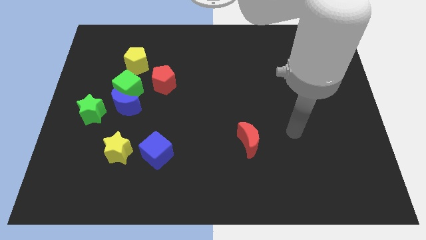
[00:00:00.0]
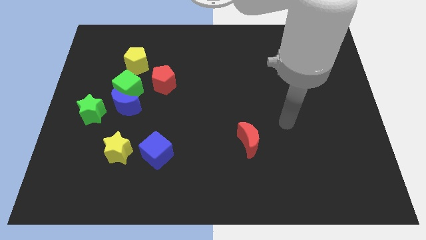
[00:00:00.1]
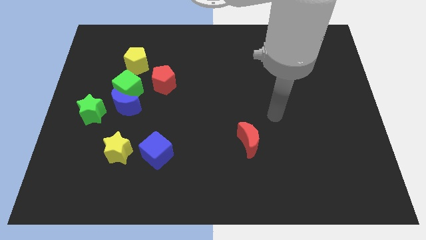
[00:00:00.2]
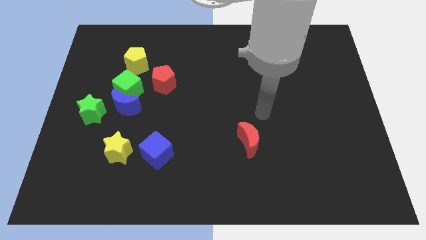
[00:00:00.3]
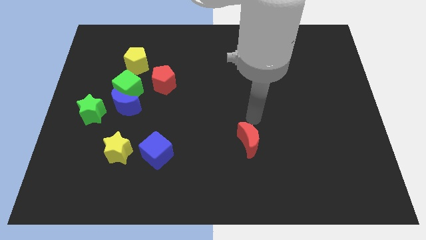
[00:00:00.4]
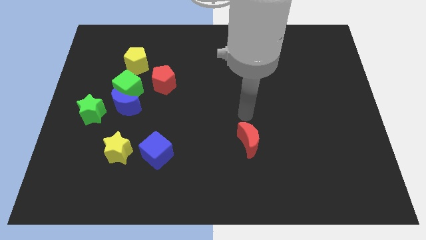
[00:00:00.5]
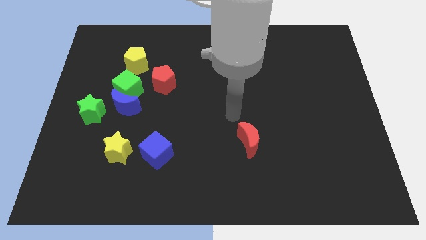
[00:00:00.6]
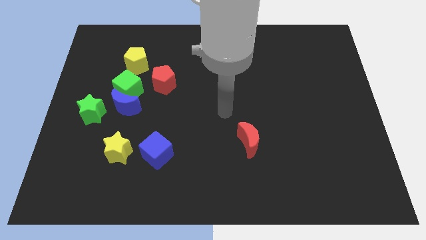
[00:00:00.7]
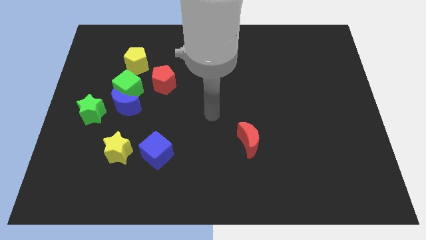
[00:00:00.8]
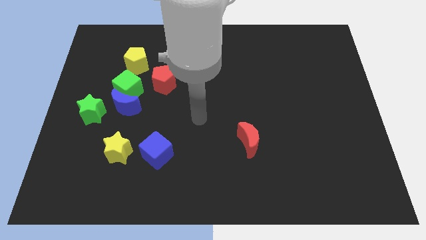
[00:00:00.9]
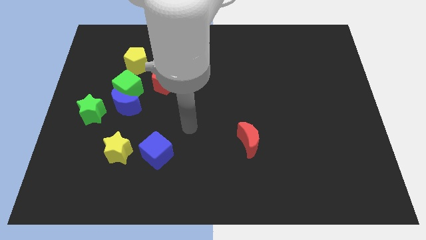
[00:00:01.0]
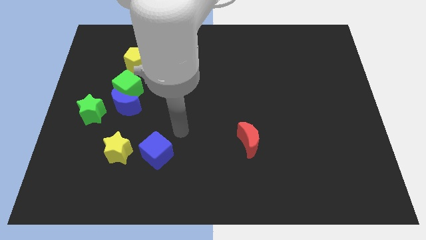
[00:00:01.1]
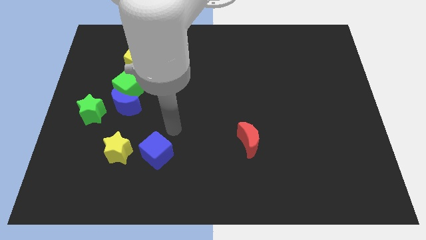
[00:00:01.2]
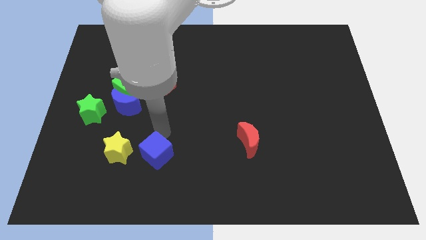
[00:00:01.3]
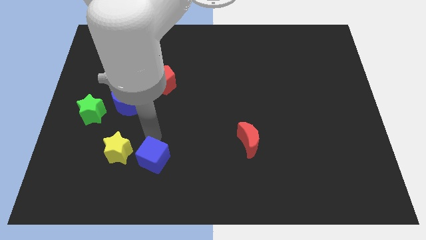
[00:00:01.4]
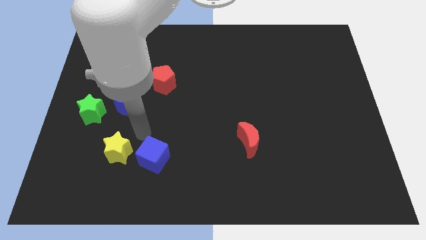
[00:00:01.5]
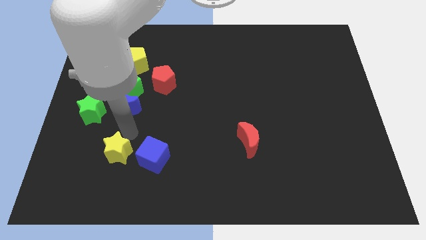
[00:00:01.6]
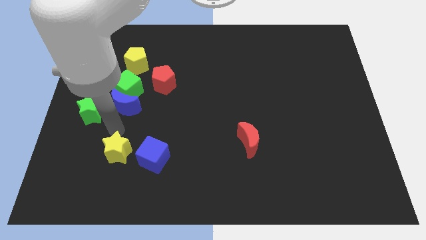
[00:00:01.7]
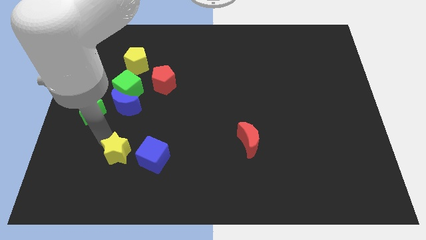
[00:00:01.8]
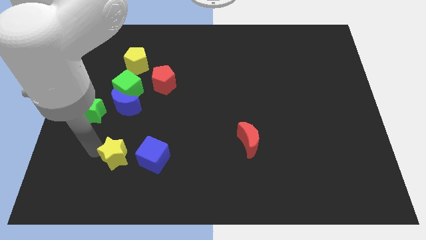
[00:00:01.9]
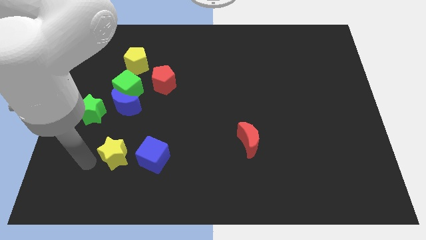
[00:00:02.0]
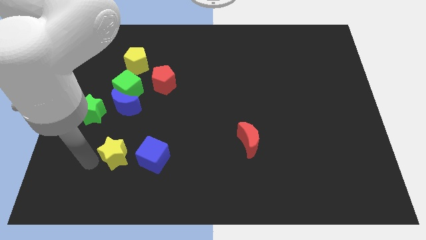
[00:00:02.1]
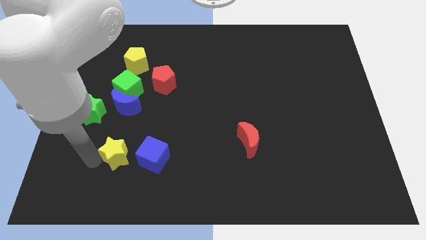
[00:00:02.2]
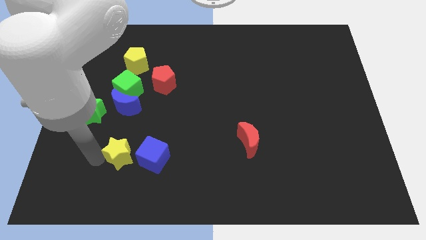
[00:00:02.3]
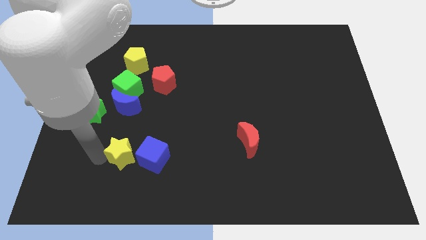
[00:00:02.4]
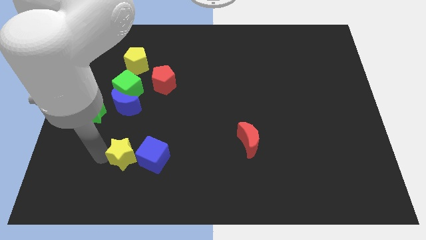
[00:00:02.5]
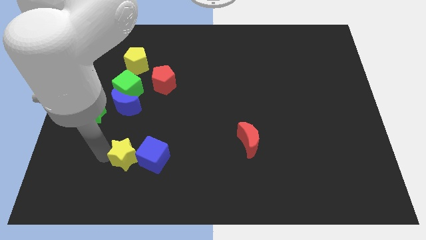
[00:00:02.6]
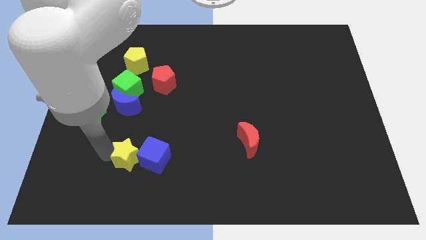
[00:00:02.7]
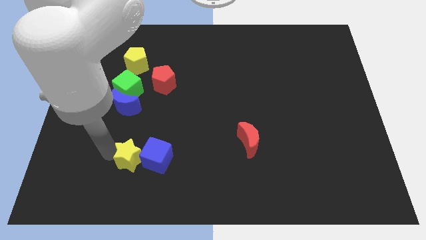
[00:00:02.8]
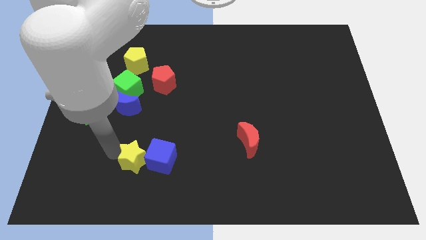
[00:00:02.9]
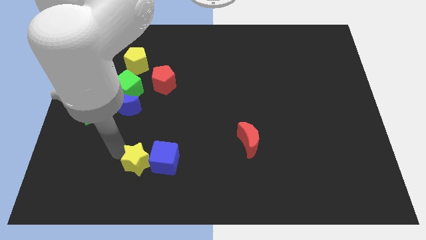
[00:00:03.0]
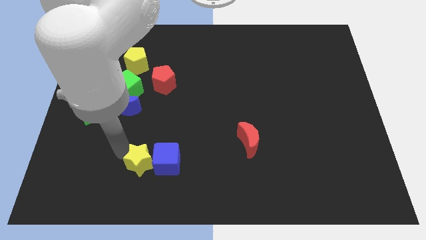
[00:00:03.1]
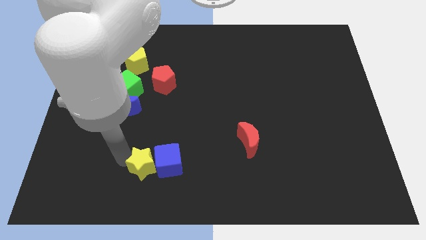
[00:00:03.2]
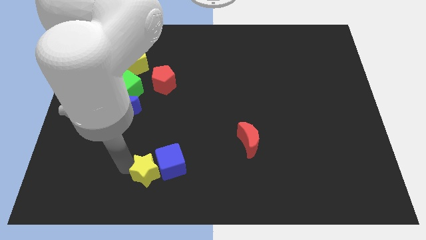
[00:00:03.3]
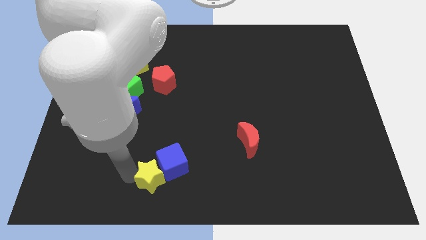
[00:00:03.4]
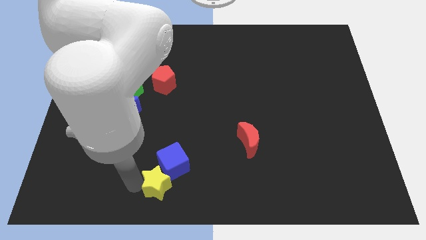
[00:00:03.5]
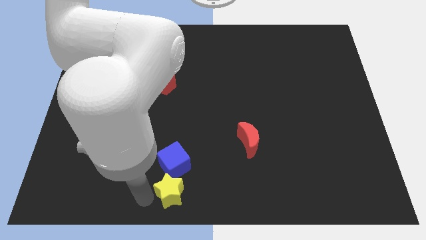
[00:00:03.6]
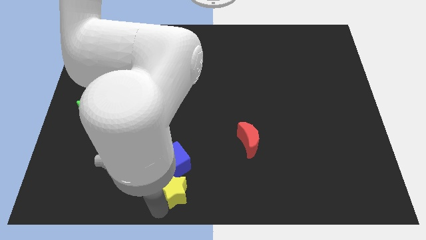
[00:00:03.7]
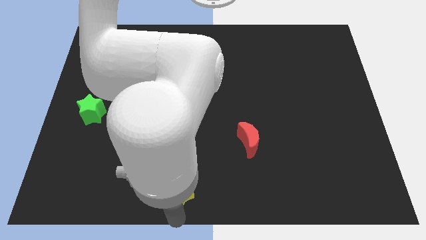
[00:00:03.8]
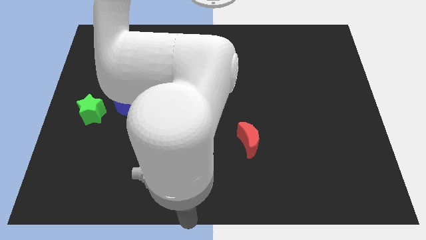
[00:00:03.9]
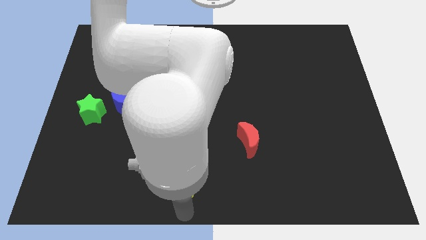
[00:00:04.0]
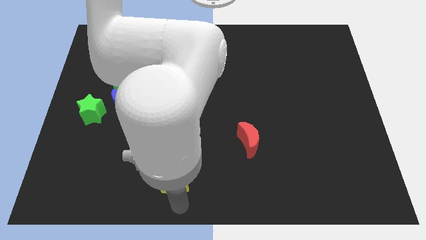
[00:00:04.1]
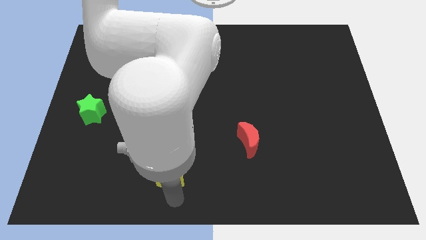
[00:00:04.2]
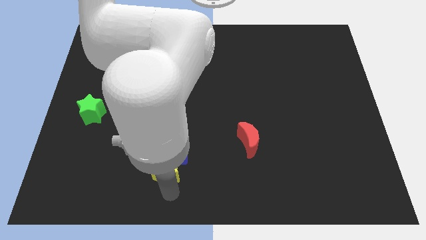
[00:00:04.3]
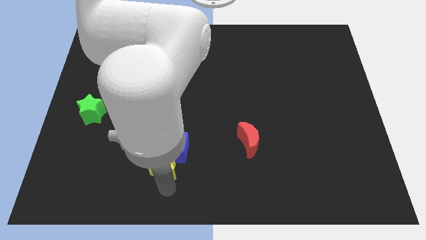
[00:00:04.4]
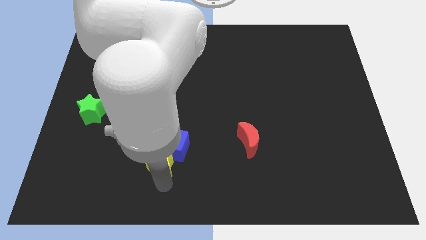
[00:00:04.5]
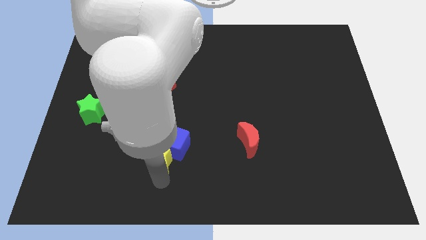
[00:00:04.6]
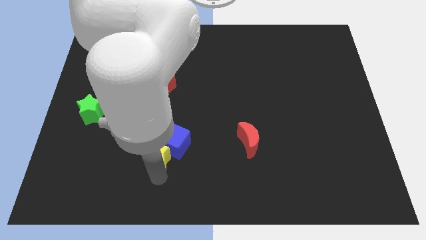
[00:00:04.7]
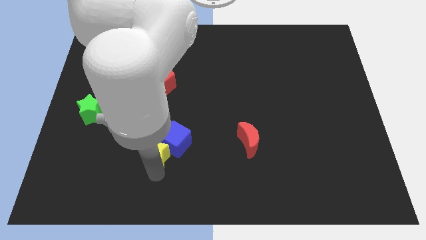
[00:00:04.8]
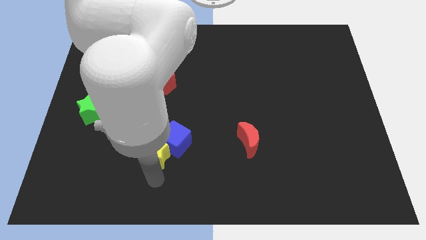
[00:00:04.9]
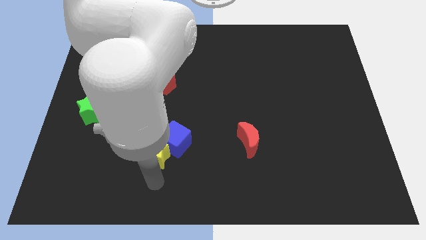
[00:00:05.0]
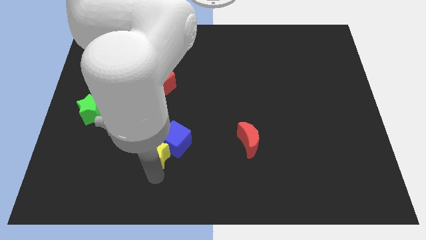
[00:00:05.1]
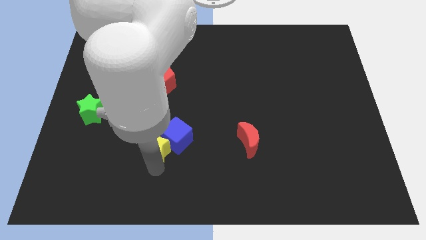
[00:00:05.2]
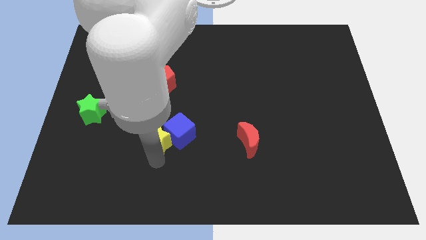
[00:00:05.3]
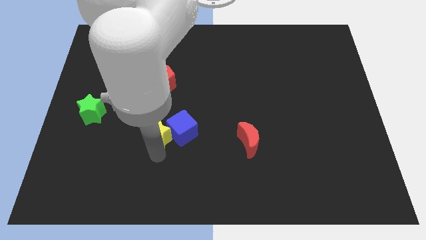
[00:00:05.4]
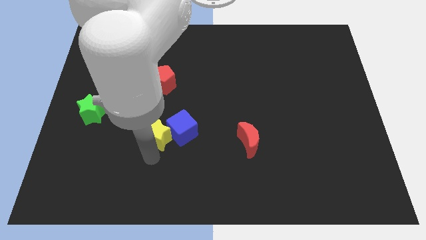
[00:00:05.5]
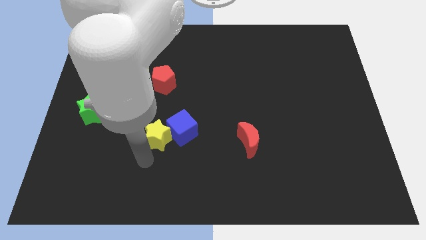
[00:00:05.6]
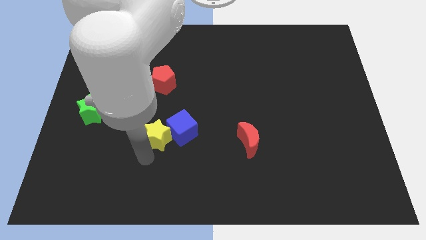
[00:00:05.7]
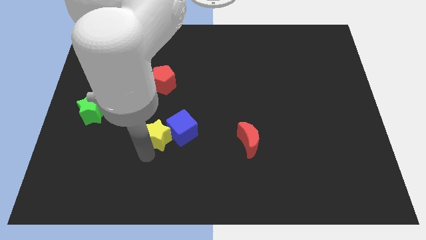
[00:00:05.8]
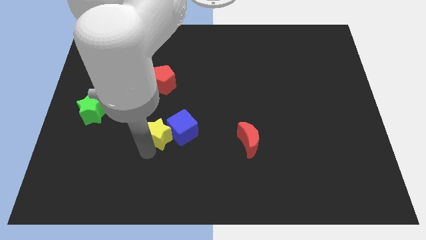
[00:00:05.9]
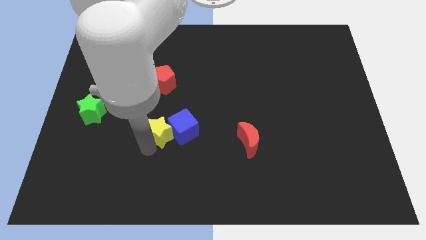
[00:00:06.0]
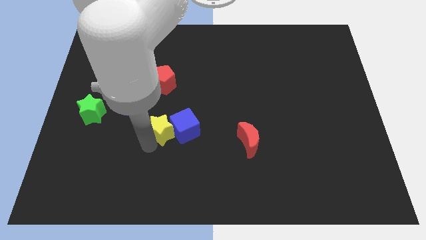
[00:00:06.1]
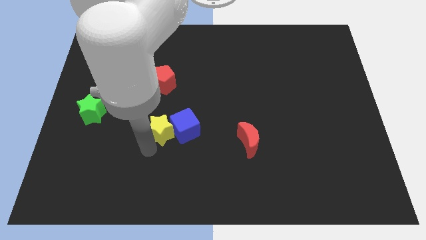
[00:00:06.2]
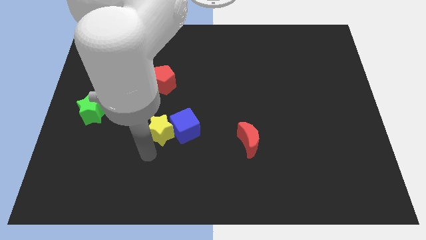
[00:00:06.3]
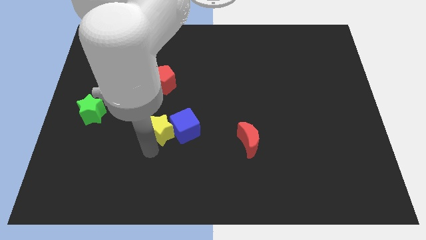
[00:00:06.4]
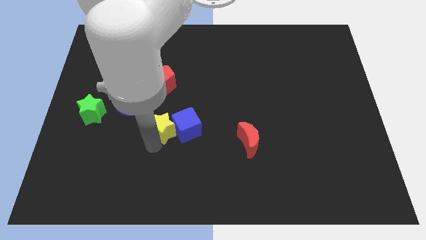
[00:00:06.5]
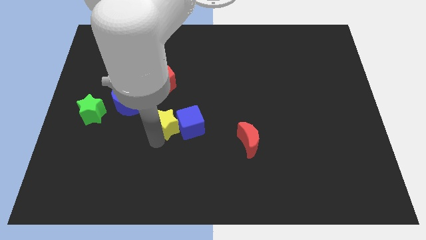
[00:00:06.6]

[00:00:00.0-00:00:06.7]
move the yellow star to the middle of the board
